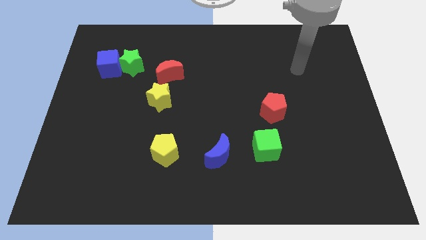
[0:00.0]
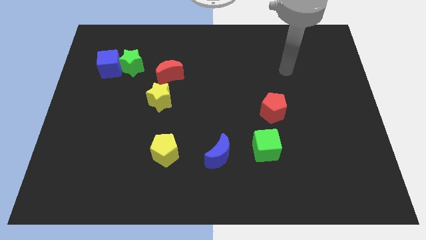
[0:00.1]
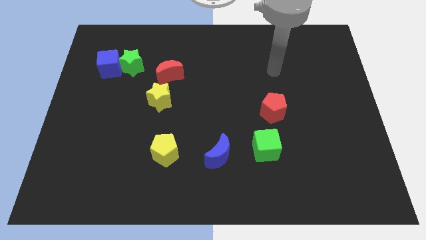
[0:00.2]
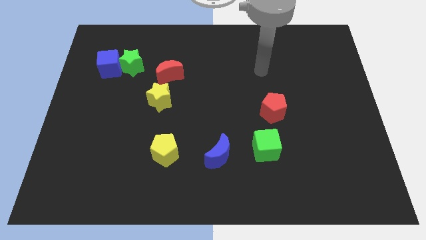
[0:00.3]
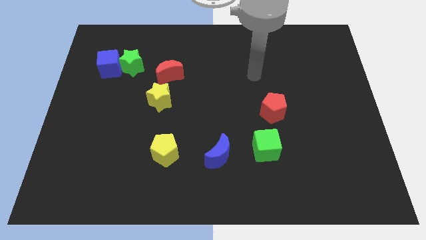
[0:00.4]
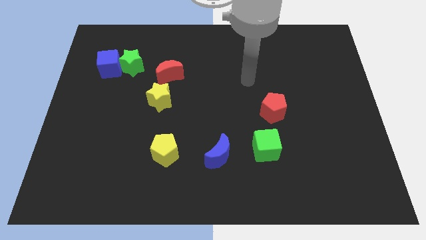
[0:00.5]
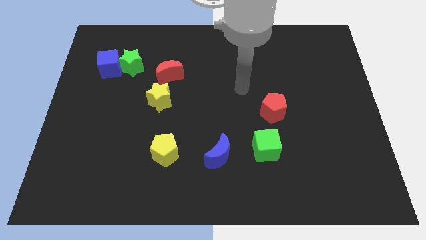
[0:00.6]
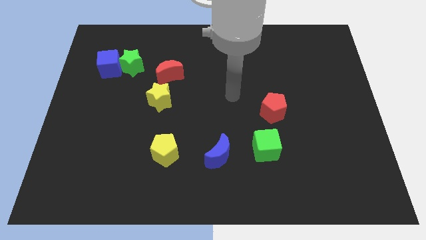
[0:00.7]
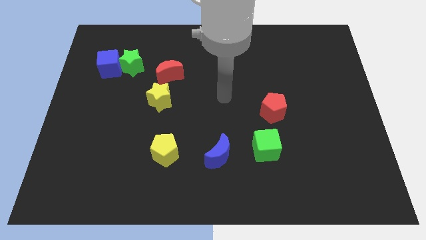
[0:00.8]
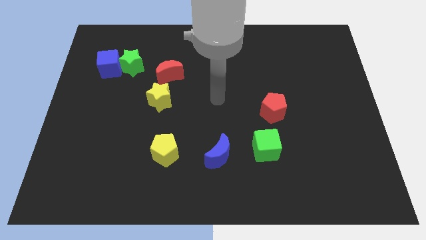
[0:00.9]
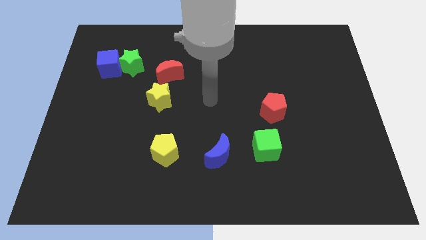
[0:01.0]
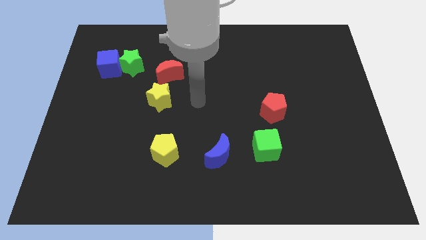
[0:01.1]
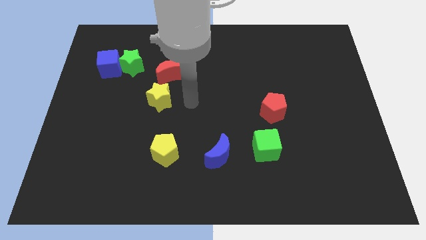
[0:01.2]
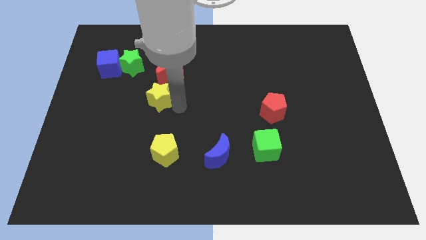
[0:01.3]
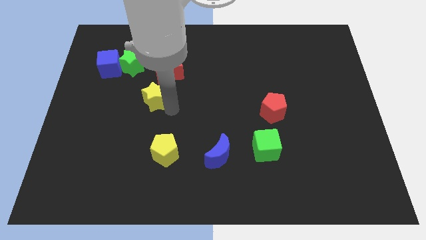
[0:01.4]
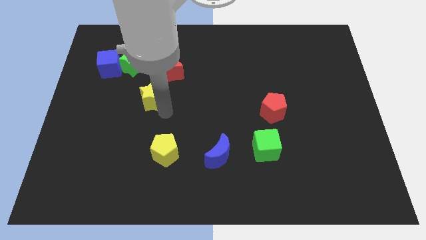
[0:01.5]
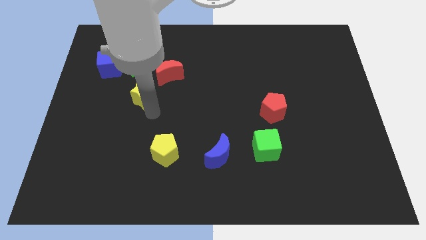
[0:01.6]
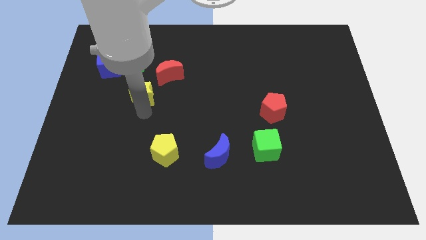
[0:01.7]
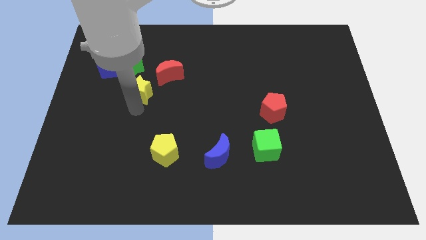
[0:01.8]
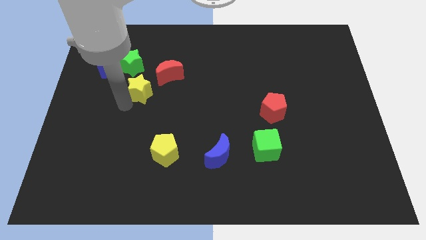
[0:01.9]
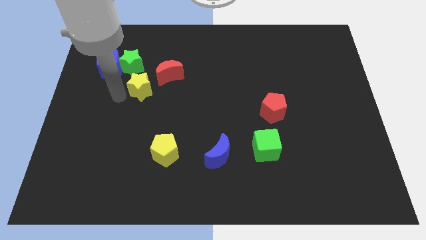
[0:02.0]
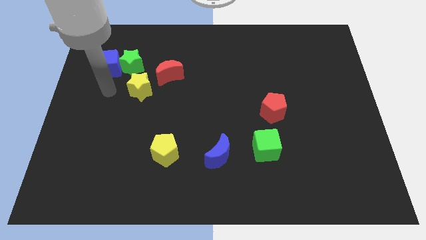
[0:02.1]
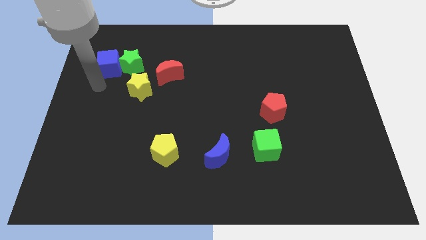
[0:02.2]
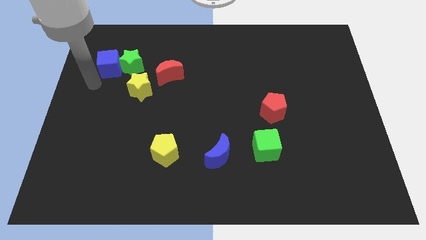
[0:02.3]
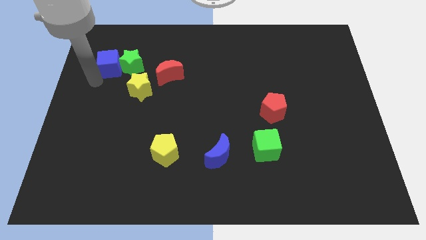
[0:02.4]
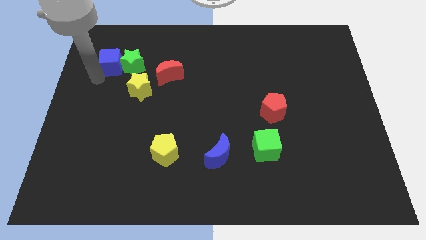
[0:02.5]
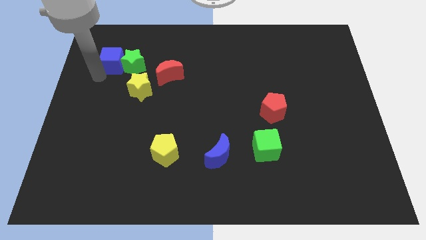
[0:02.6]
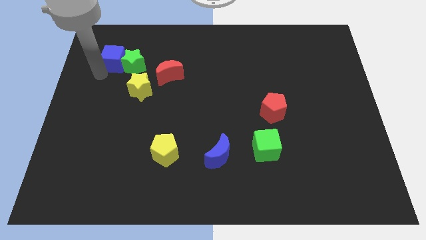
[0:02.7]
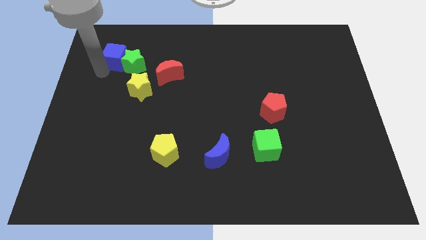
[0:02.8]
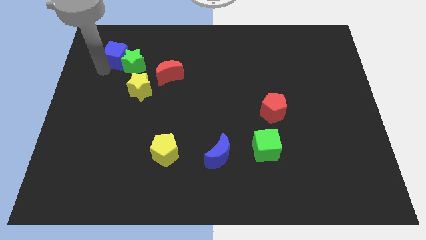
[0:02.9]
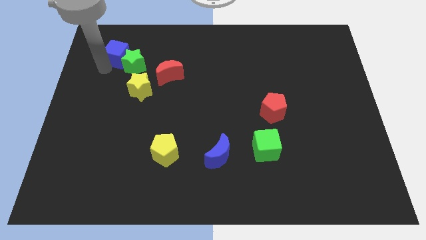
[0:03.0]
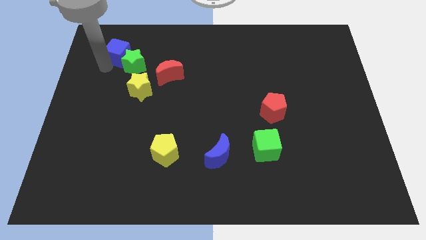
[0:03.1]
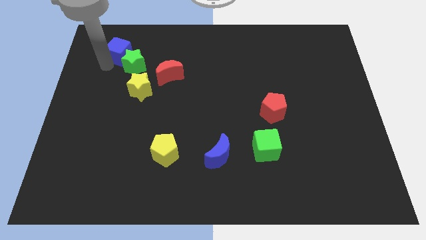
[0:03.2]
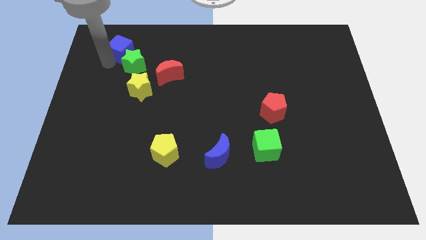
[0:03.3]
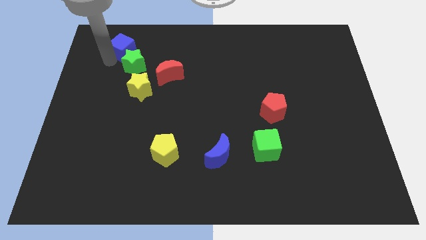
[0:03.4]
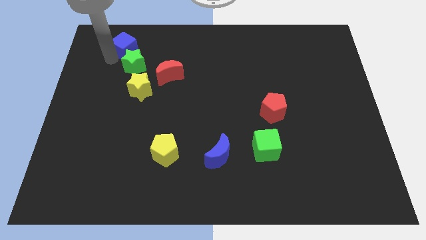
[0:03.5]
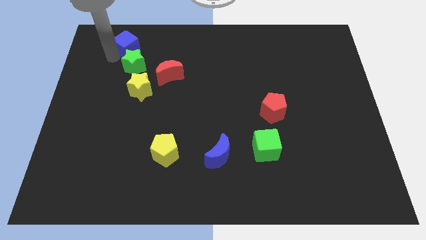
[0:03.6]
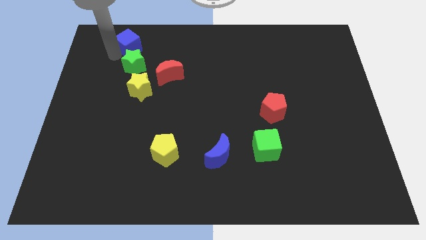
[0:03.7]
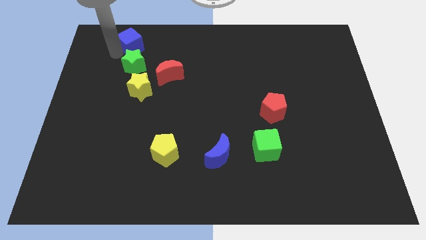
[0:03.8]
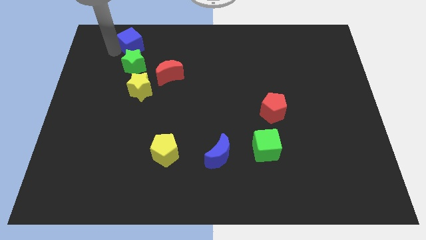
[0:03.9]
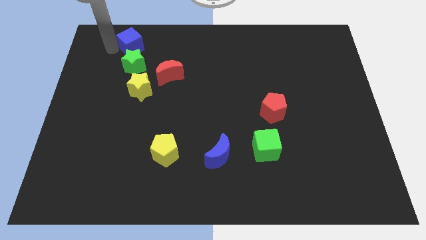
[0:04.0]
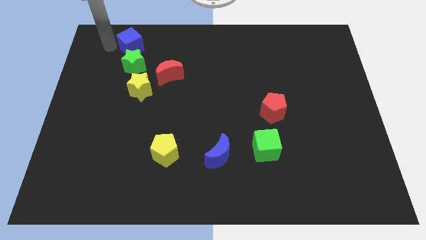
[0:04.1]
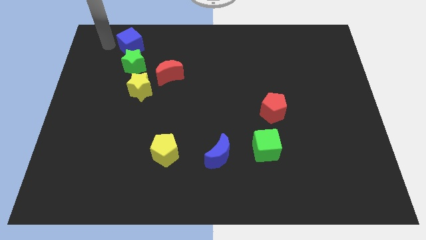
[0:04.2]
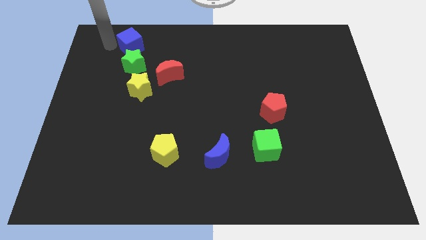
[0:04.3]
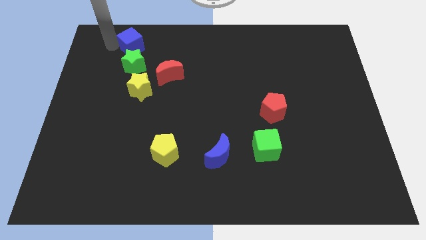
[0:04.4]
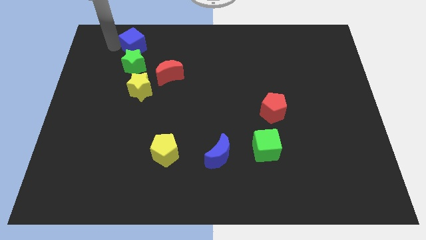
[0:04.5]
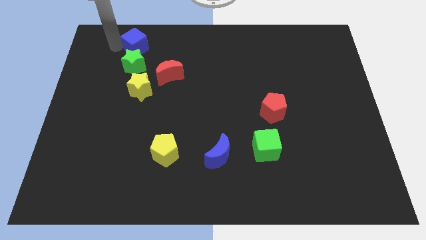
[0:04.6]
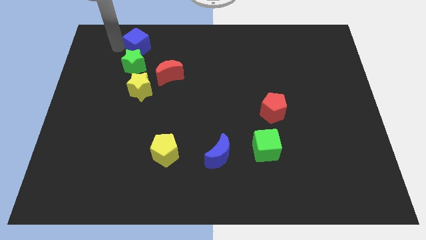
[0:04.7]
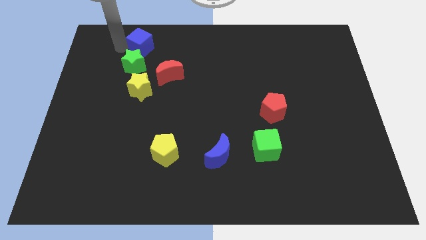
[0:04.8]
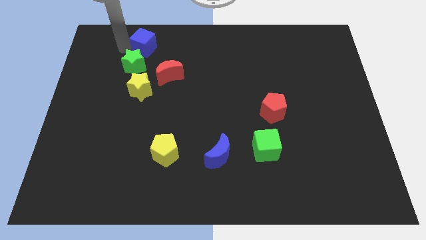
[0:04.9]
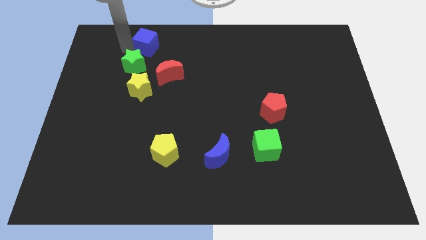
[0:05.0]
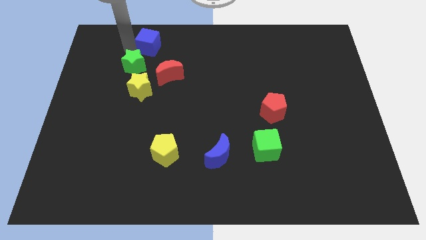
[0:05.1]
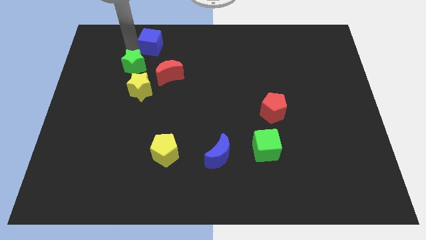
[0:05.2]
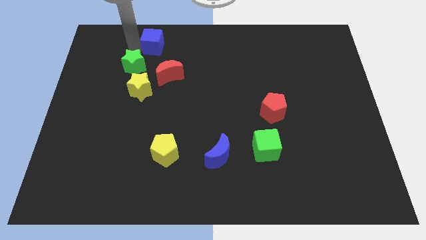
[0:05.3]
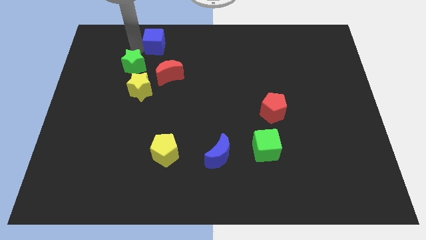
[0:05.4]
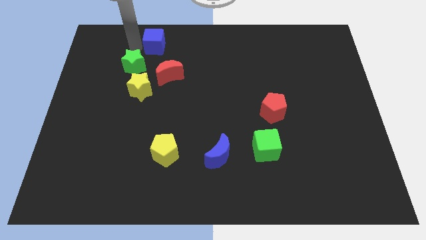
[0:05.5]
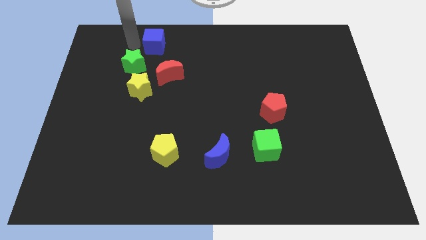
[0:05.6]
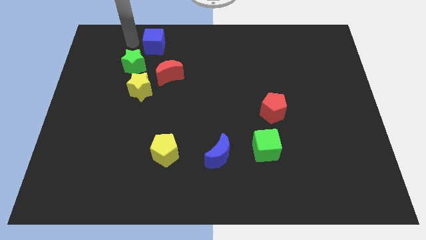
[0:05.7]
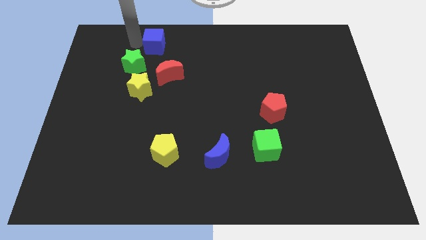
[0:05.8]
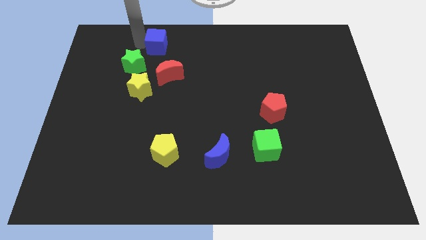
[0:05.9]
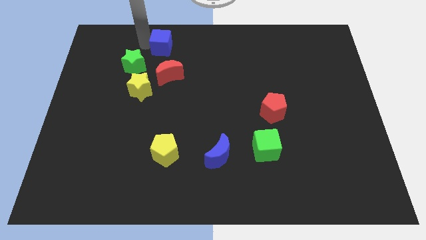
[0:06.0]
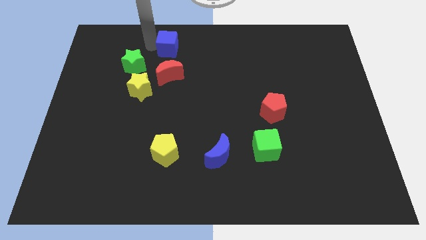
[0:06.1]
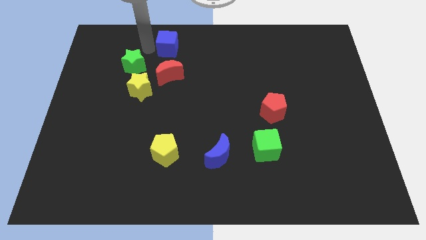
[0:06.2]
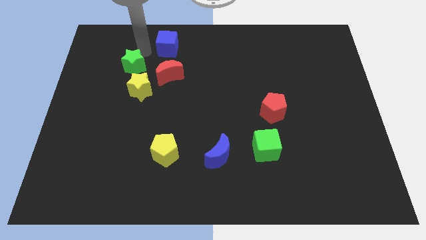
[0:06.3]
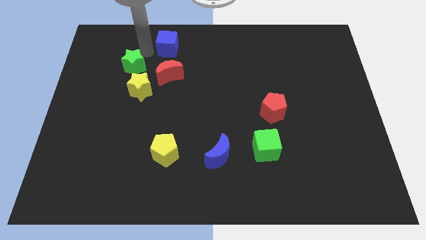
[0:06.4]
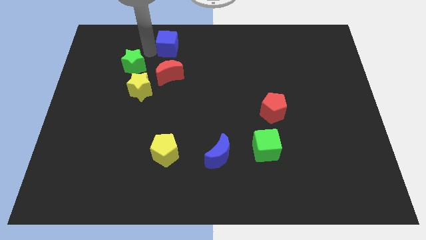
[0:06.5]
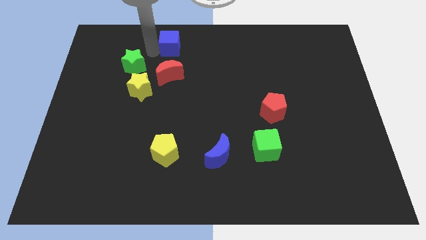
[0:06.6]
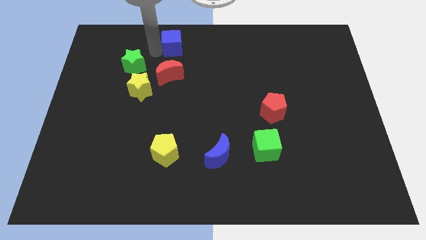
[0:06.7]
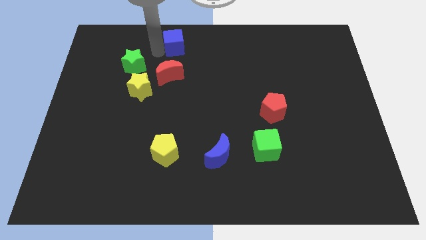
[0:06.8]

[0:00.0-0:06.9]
slide the blue cube to the top side
